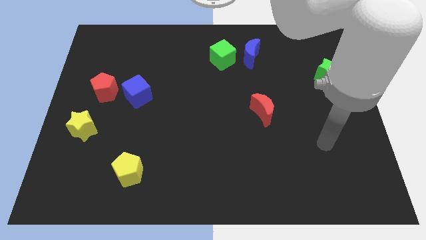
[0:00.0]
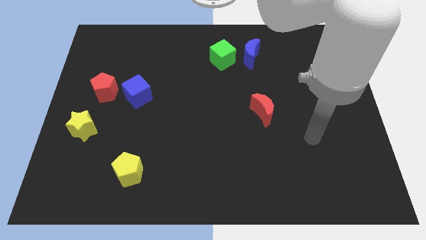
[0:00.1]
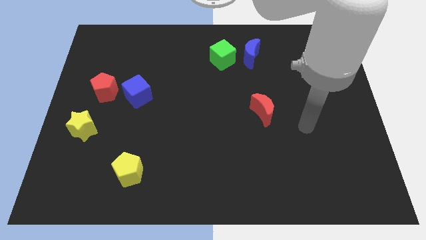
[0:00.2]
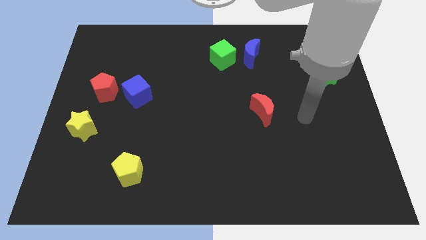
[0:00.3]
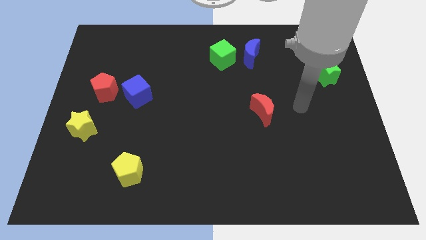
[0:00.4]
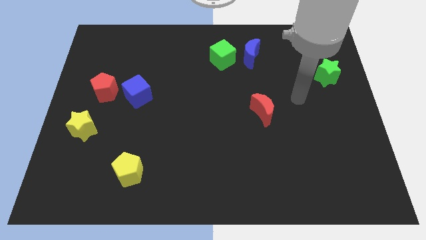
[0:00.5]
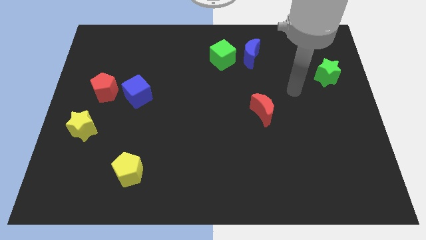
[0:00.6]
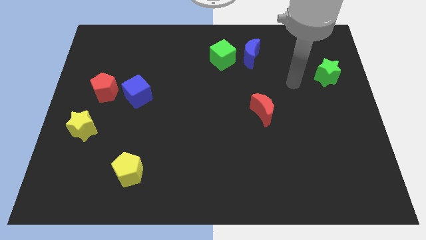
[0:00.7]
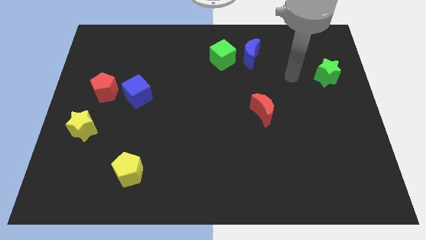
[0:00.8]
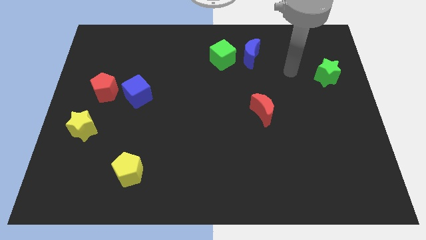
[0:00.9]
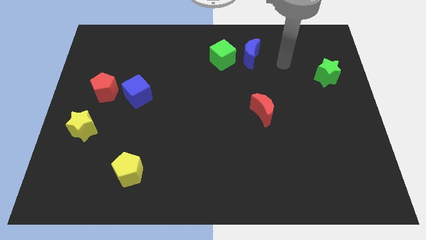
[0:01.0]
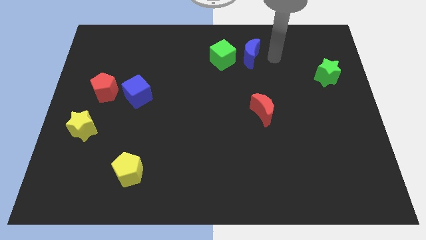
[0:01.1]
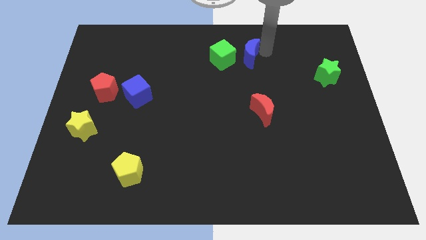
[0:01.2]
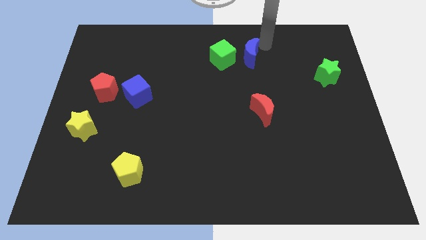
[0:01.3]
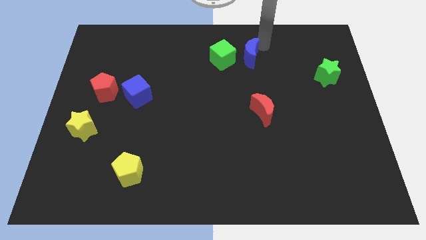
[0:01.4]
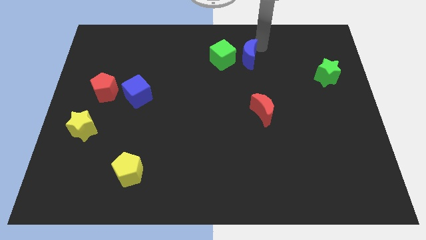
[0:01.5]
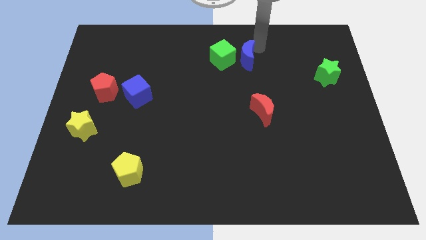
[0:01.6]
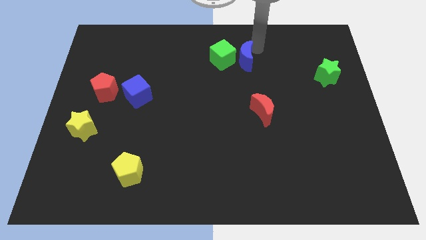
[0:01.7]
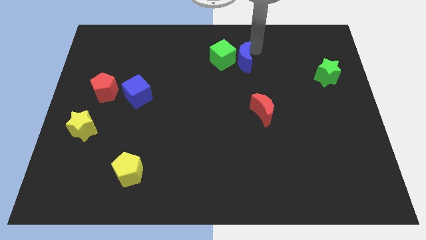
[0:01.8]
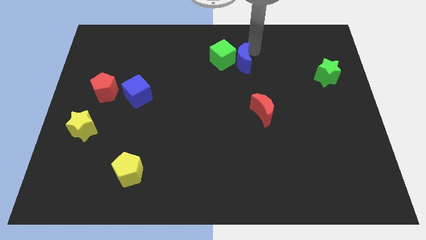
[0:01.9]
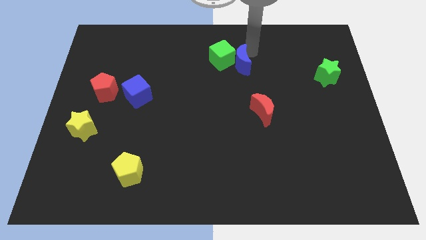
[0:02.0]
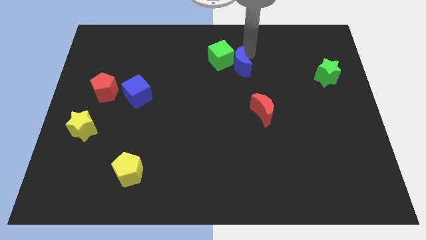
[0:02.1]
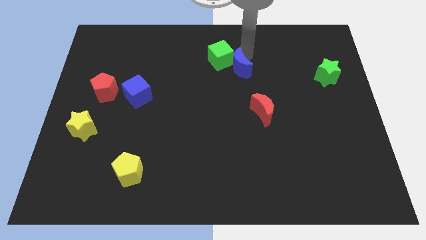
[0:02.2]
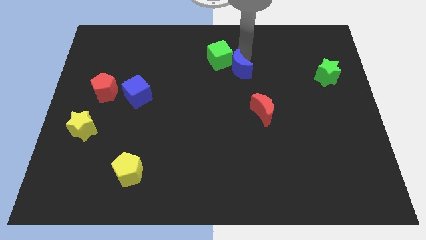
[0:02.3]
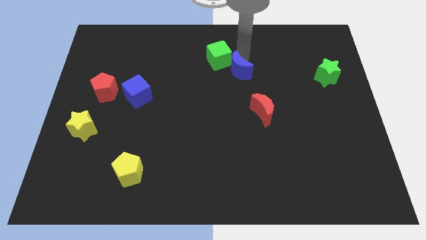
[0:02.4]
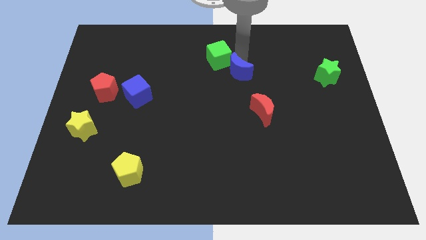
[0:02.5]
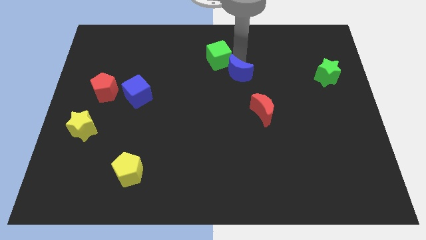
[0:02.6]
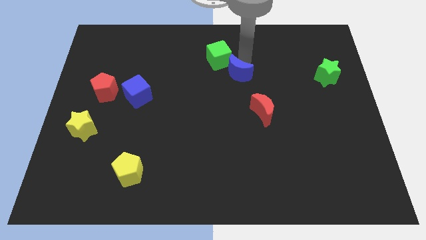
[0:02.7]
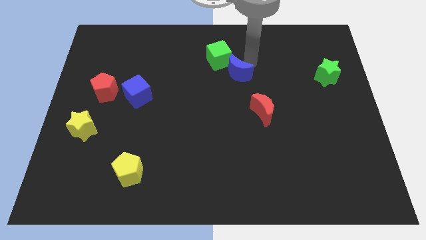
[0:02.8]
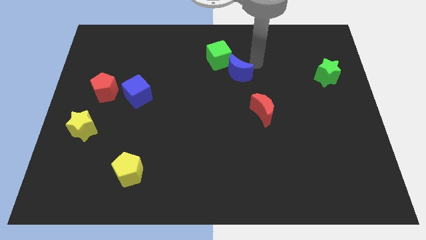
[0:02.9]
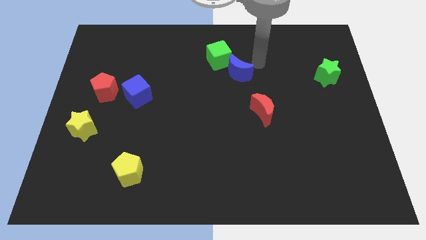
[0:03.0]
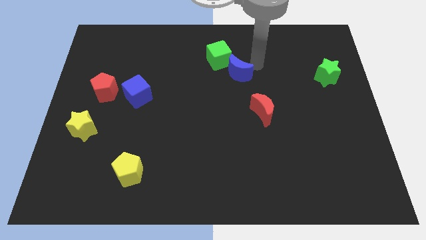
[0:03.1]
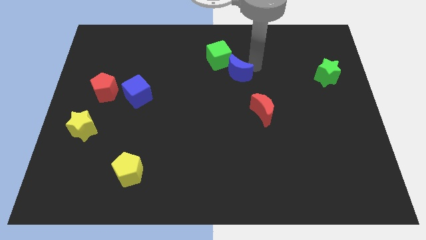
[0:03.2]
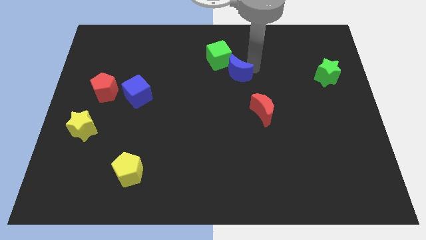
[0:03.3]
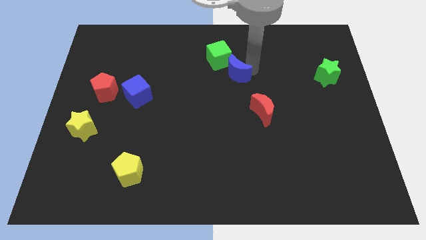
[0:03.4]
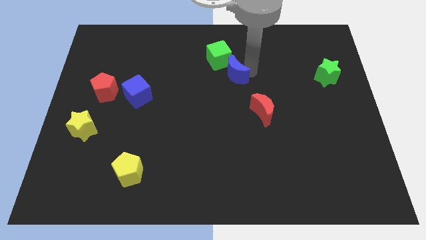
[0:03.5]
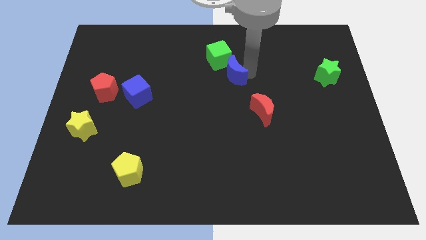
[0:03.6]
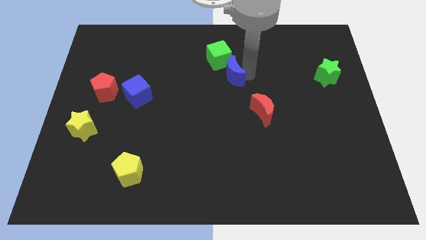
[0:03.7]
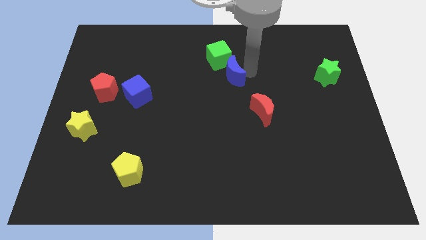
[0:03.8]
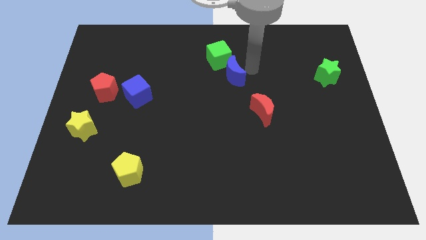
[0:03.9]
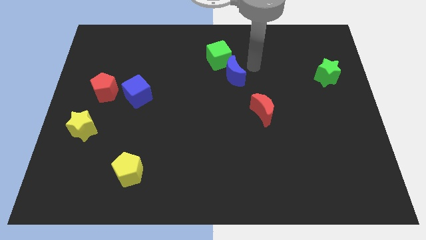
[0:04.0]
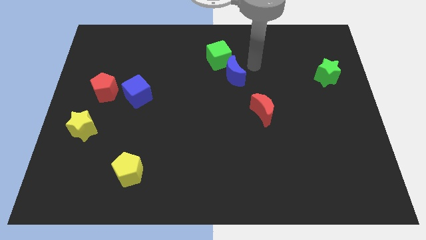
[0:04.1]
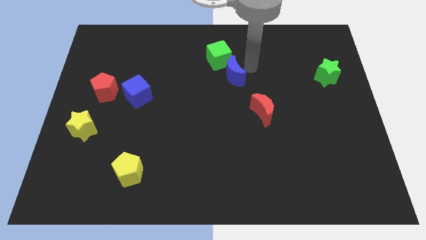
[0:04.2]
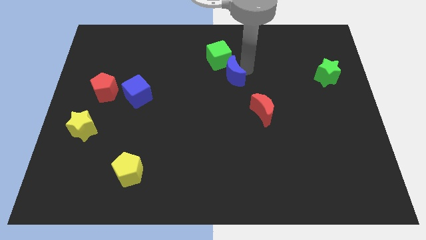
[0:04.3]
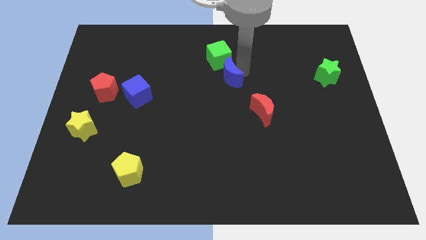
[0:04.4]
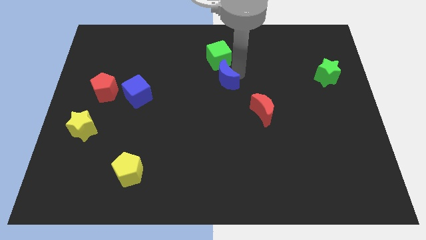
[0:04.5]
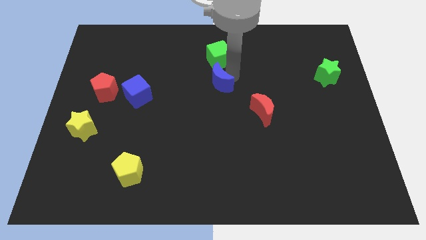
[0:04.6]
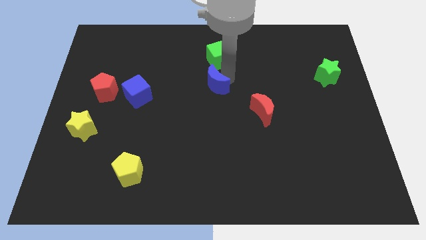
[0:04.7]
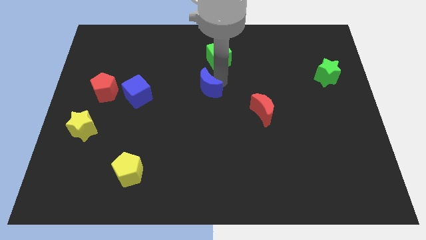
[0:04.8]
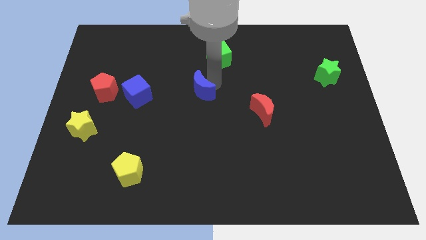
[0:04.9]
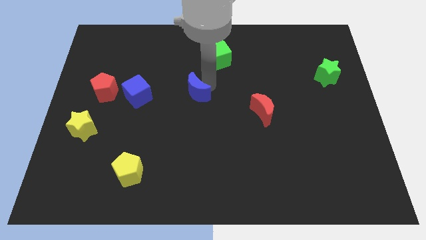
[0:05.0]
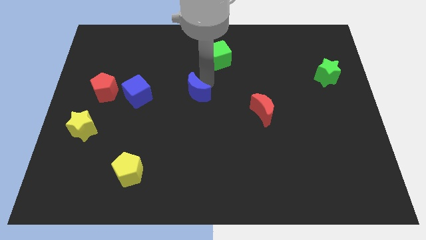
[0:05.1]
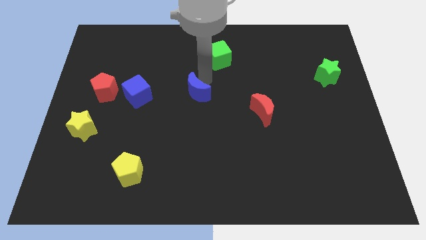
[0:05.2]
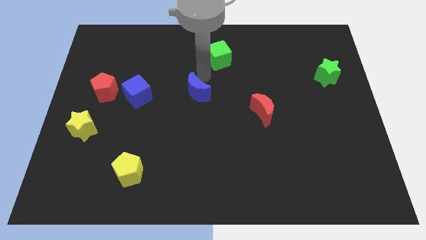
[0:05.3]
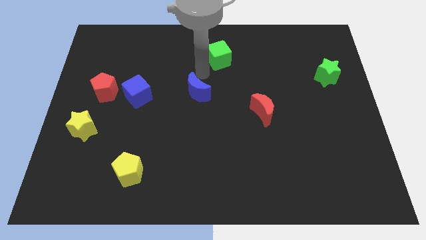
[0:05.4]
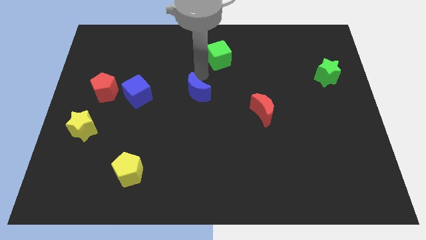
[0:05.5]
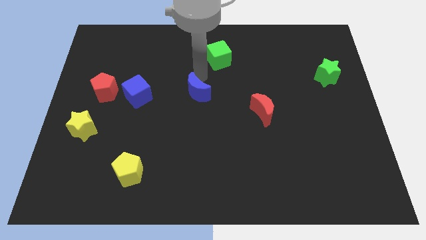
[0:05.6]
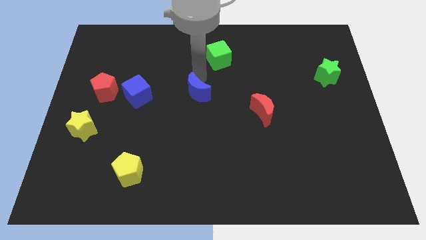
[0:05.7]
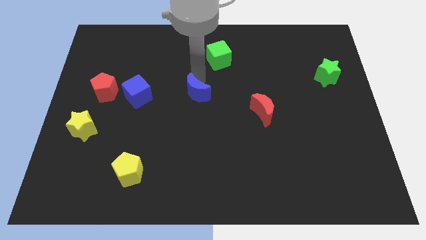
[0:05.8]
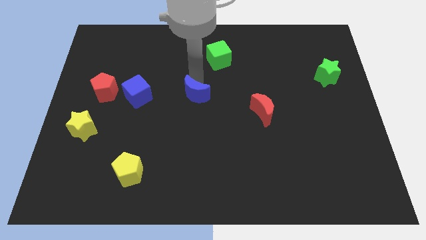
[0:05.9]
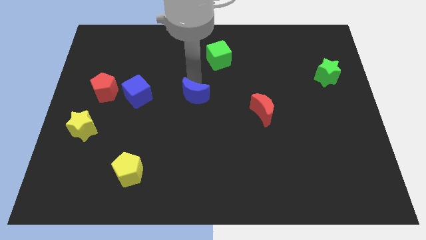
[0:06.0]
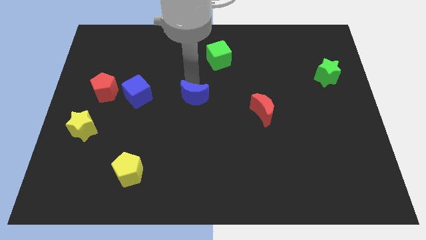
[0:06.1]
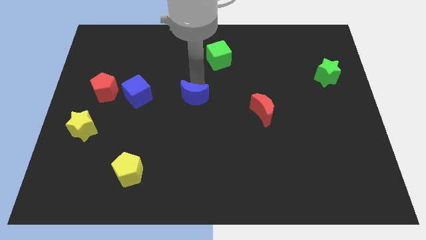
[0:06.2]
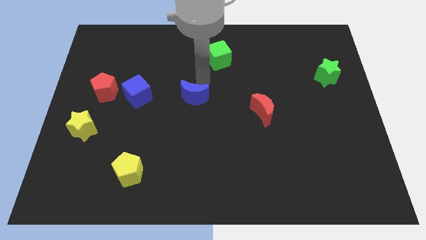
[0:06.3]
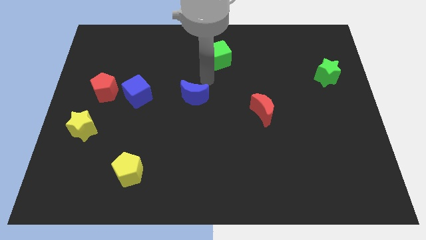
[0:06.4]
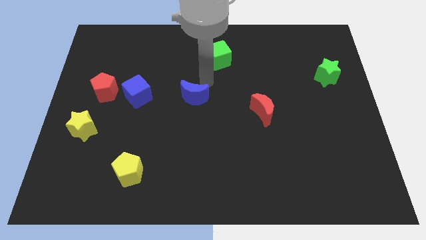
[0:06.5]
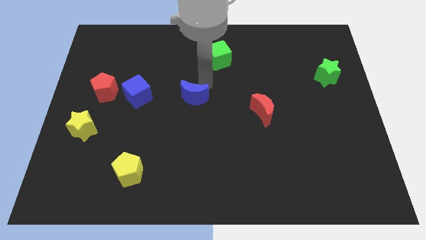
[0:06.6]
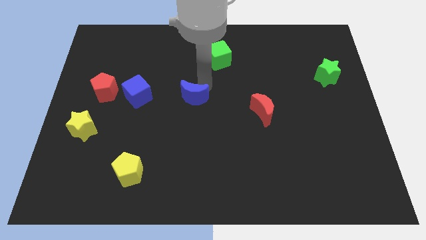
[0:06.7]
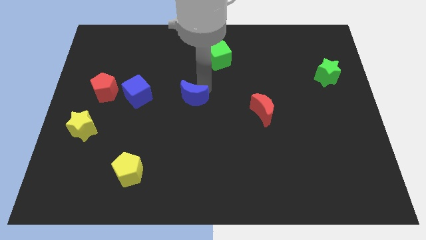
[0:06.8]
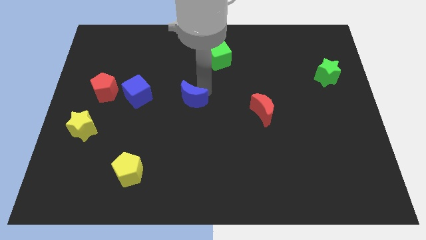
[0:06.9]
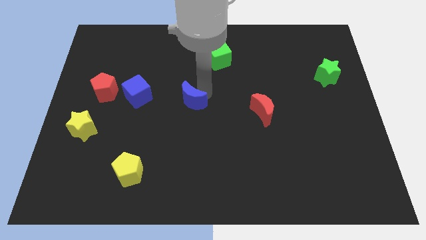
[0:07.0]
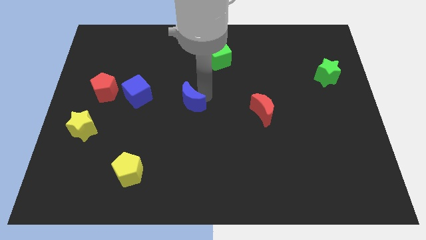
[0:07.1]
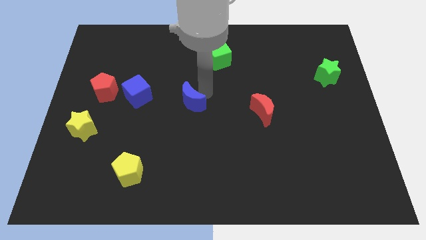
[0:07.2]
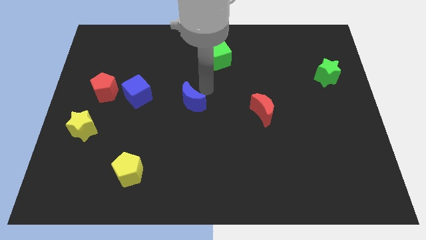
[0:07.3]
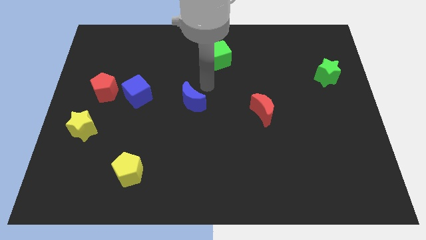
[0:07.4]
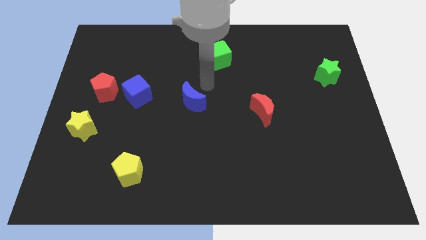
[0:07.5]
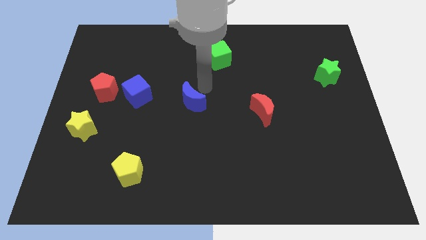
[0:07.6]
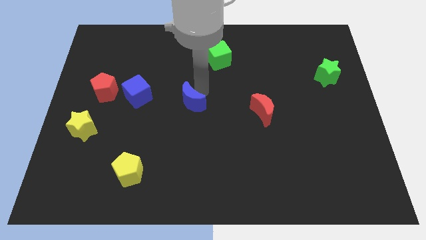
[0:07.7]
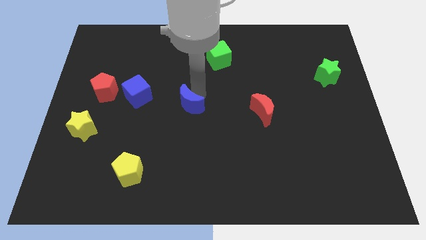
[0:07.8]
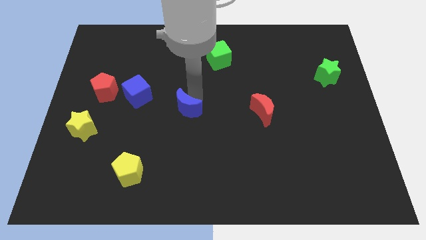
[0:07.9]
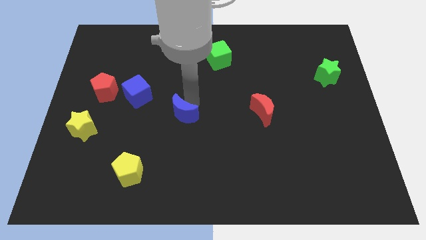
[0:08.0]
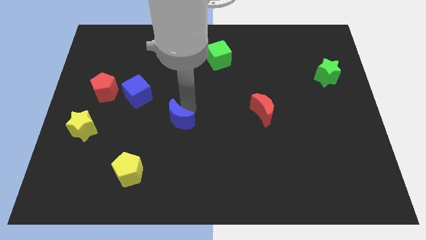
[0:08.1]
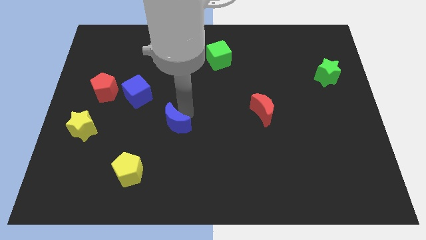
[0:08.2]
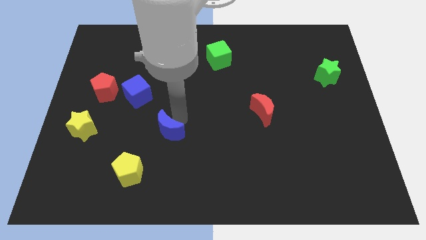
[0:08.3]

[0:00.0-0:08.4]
move the blue moon diagonally up and to the right of the yellow pentagon
